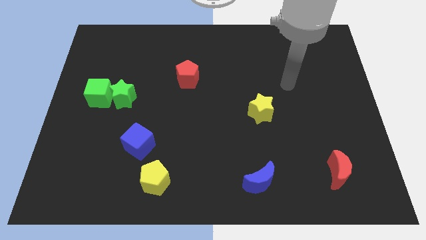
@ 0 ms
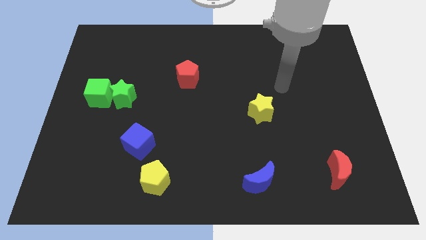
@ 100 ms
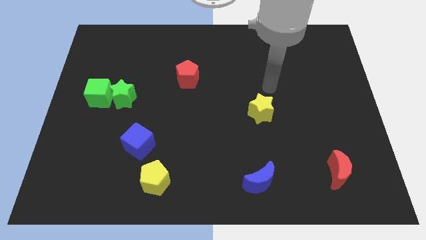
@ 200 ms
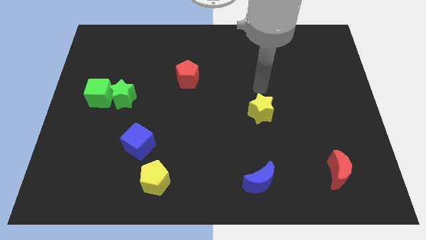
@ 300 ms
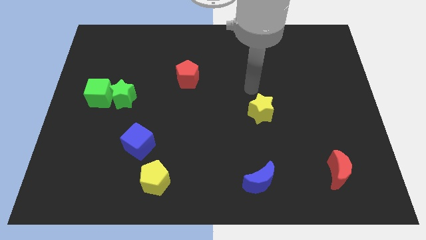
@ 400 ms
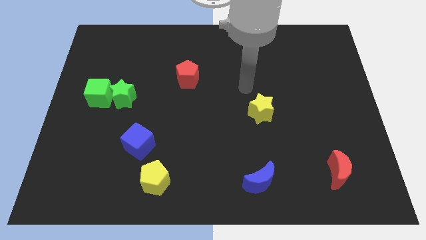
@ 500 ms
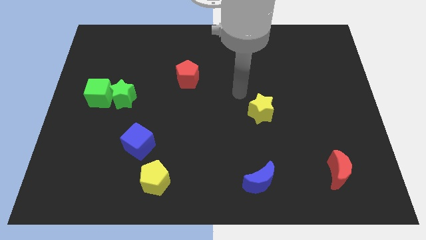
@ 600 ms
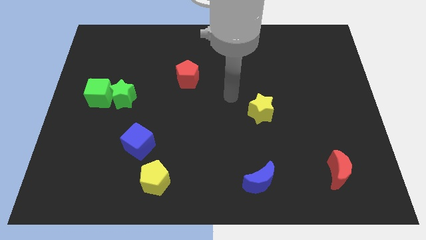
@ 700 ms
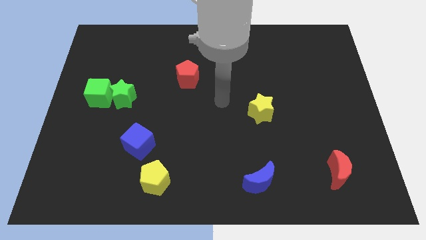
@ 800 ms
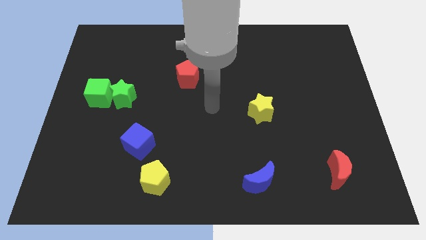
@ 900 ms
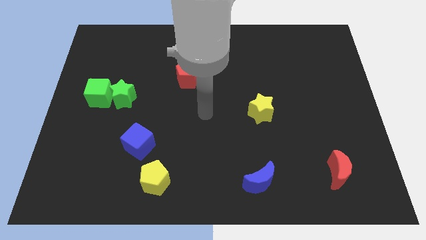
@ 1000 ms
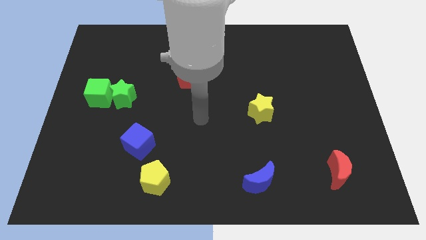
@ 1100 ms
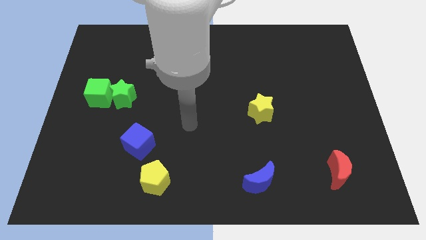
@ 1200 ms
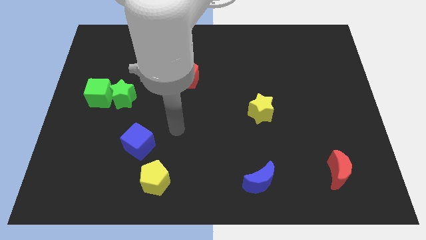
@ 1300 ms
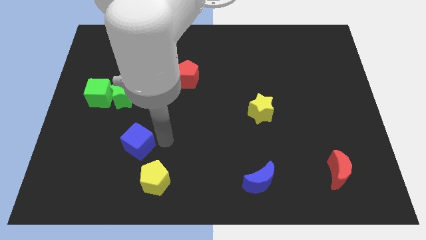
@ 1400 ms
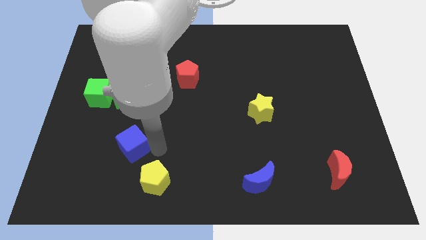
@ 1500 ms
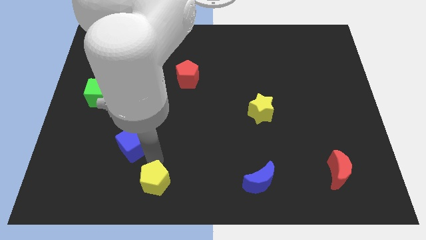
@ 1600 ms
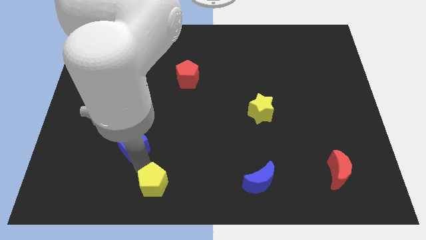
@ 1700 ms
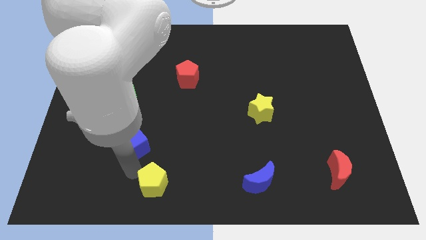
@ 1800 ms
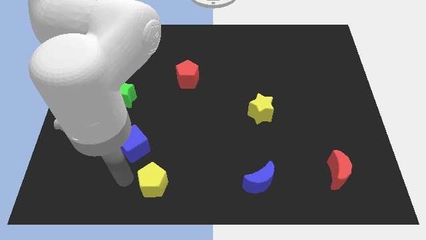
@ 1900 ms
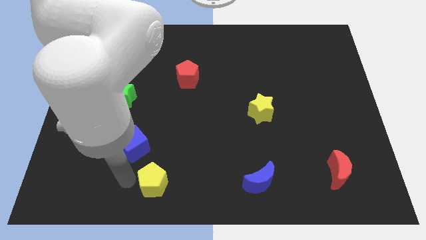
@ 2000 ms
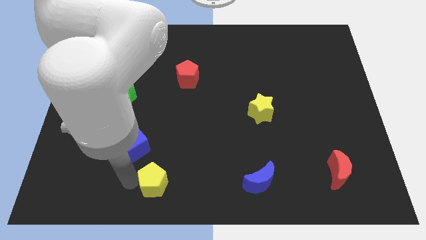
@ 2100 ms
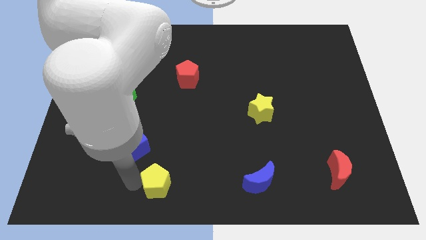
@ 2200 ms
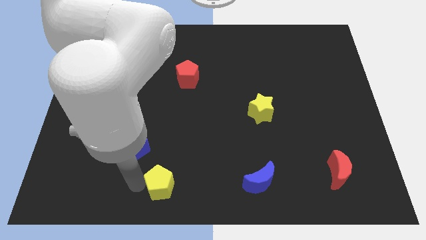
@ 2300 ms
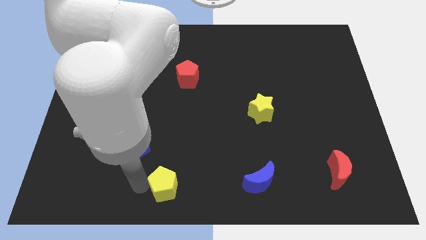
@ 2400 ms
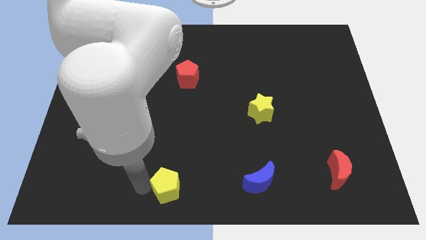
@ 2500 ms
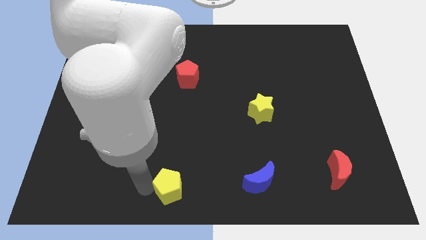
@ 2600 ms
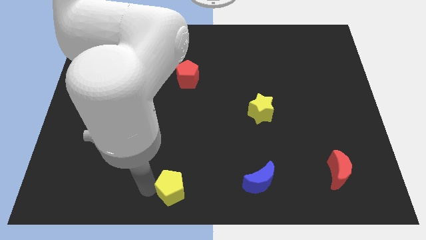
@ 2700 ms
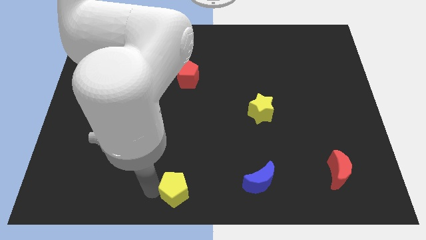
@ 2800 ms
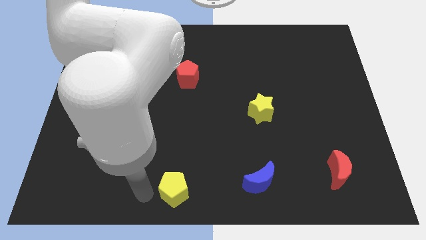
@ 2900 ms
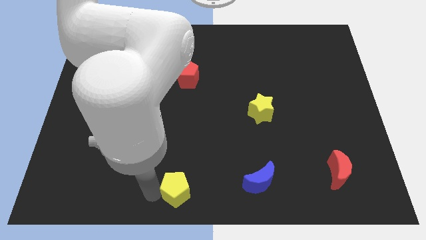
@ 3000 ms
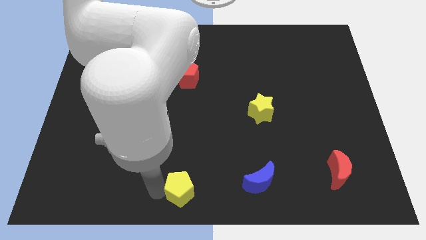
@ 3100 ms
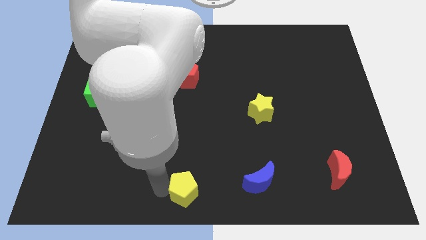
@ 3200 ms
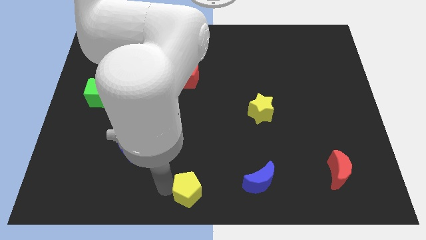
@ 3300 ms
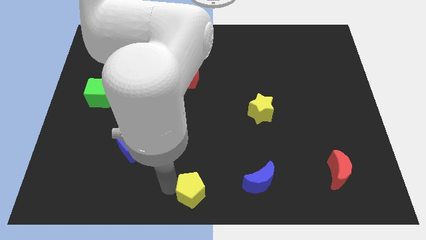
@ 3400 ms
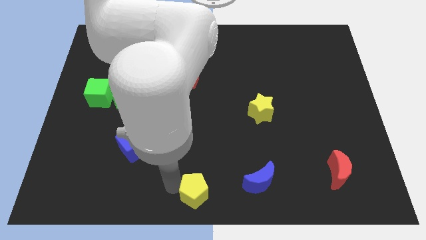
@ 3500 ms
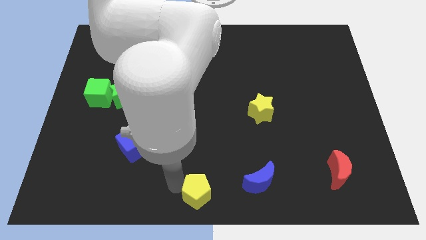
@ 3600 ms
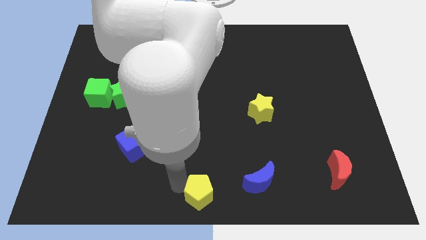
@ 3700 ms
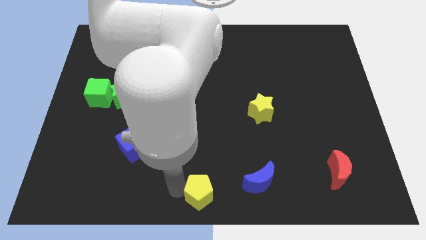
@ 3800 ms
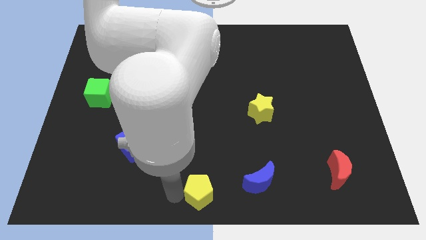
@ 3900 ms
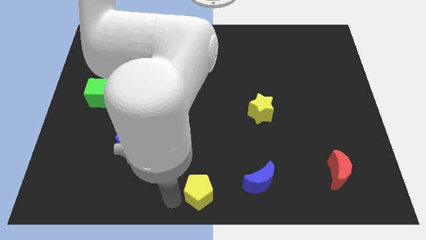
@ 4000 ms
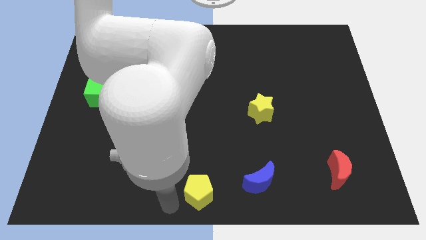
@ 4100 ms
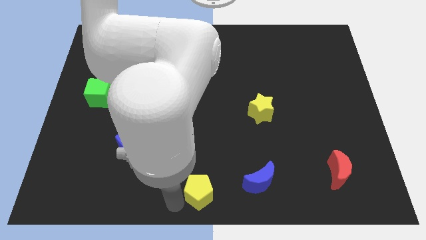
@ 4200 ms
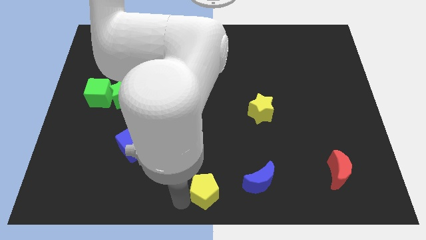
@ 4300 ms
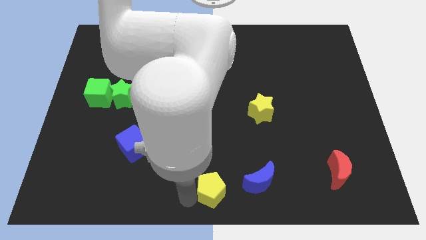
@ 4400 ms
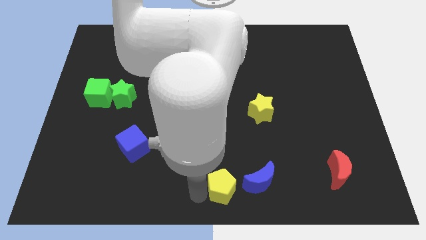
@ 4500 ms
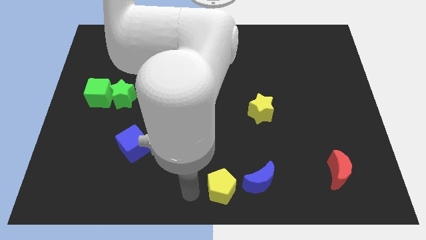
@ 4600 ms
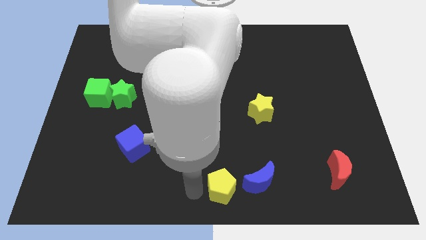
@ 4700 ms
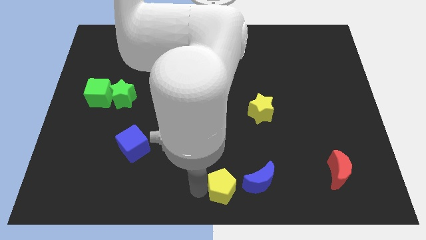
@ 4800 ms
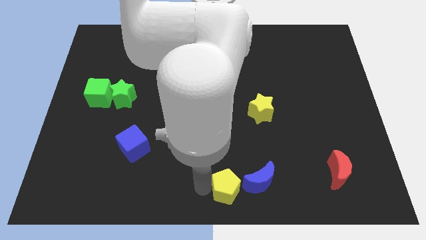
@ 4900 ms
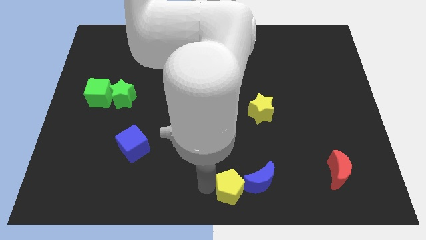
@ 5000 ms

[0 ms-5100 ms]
move the yellow pentagon towards the blue moon

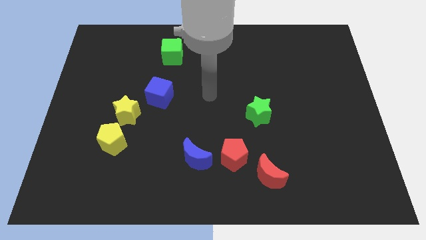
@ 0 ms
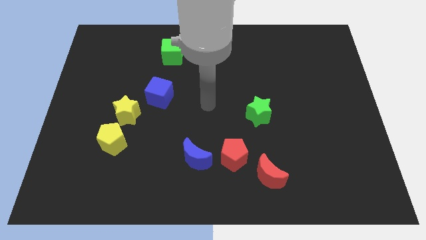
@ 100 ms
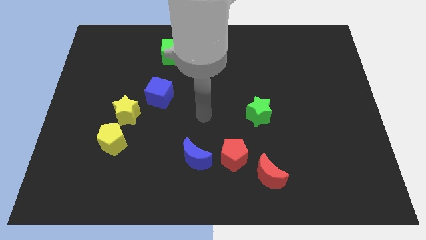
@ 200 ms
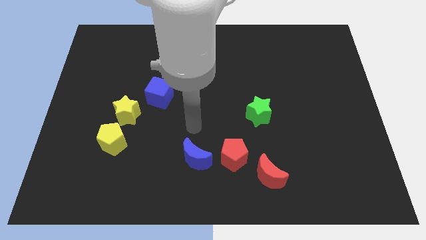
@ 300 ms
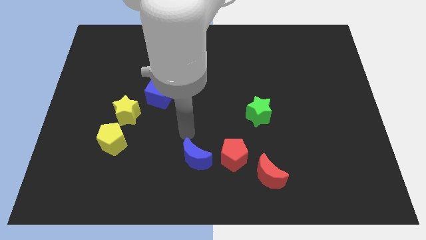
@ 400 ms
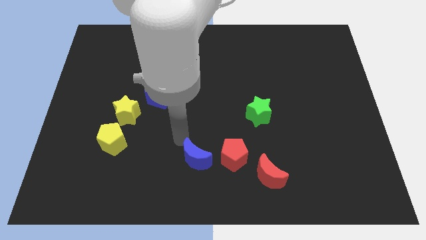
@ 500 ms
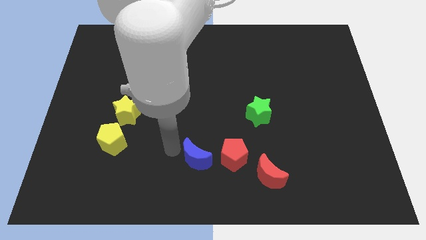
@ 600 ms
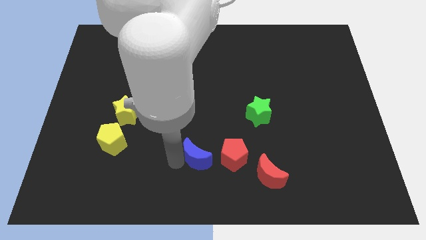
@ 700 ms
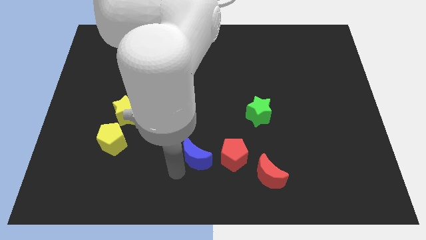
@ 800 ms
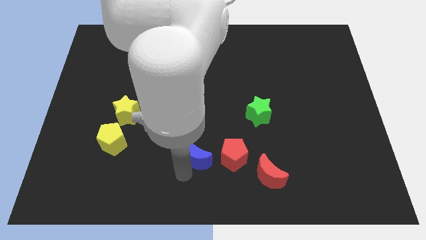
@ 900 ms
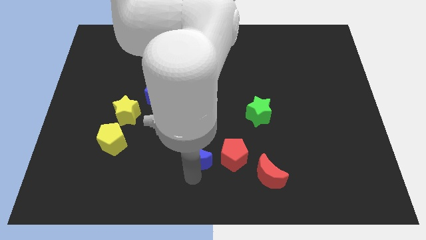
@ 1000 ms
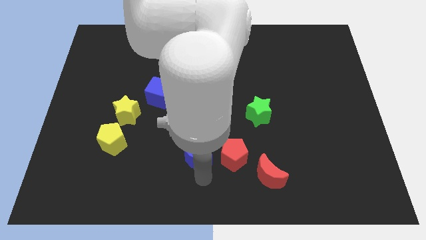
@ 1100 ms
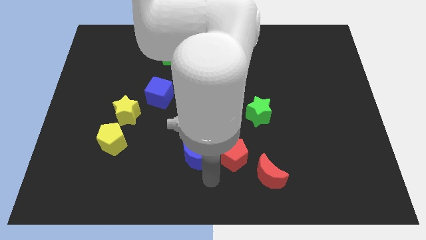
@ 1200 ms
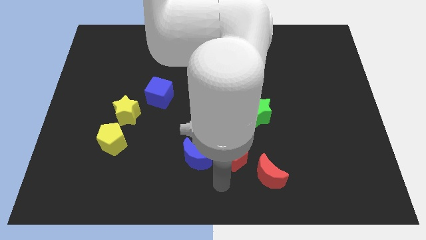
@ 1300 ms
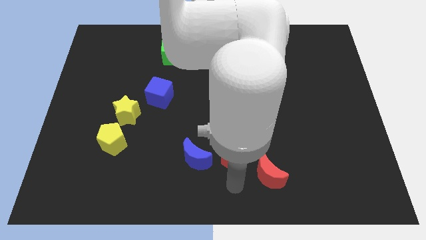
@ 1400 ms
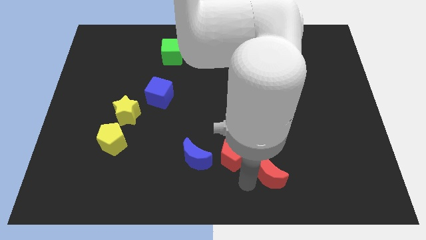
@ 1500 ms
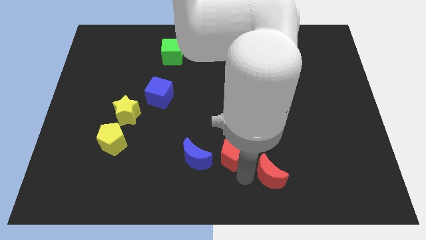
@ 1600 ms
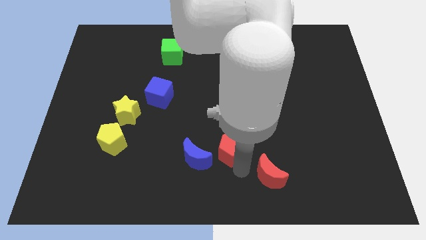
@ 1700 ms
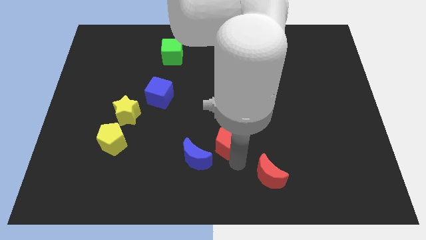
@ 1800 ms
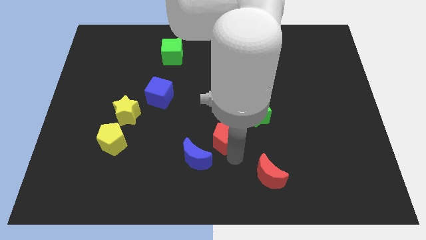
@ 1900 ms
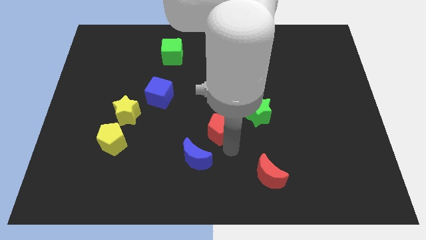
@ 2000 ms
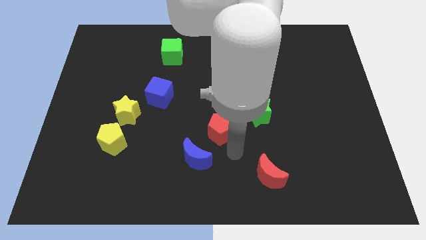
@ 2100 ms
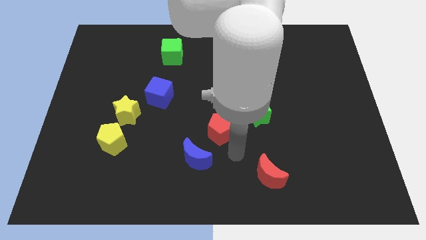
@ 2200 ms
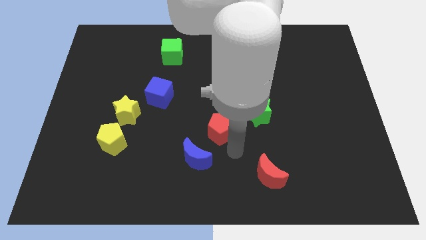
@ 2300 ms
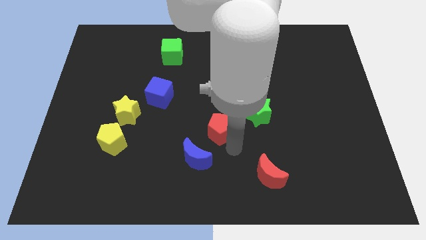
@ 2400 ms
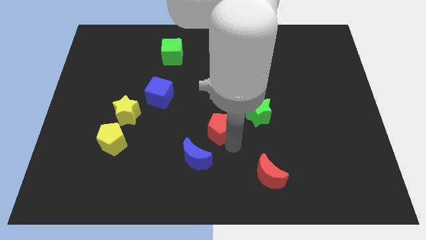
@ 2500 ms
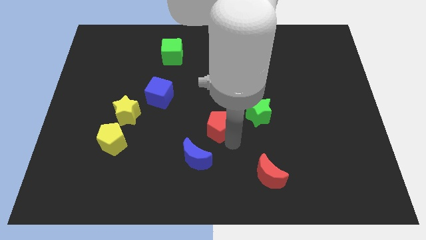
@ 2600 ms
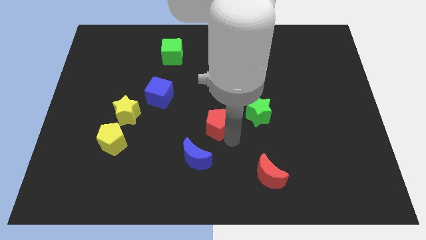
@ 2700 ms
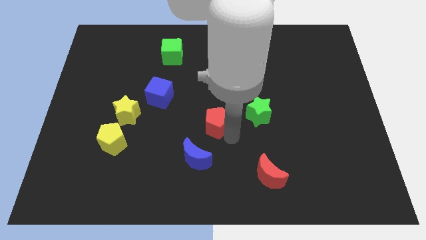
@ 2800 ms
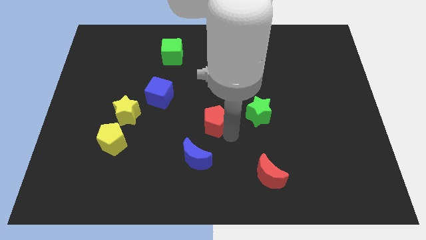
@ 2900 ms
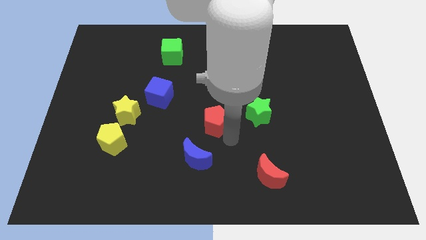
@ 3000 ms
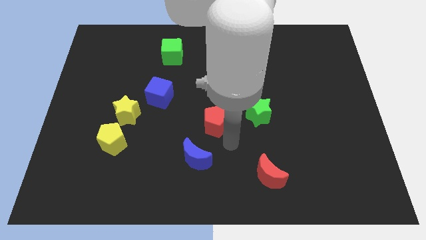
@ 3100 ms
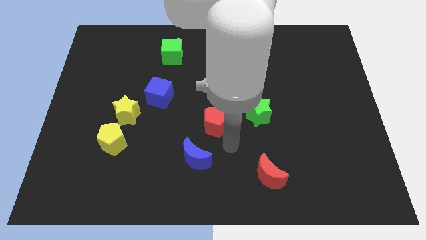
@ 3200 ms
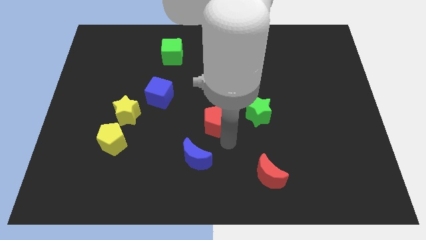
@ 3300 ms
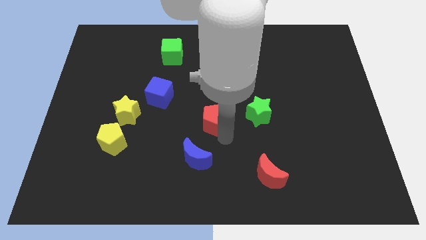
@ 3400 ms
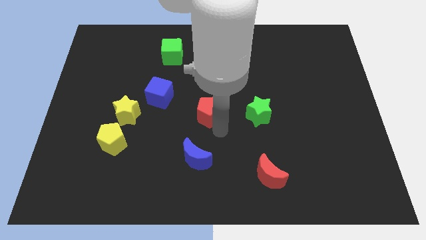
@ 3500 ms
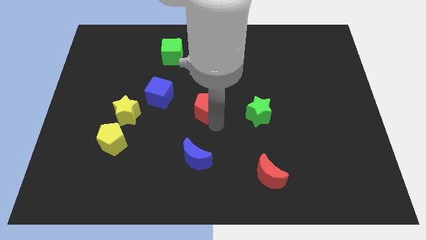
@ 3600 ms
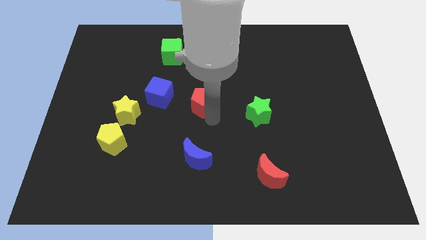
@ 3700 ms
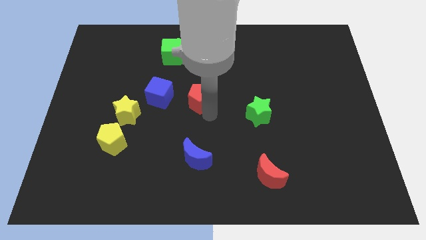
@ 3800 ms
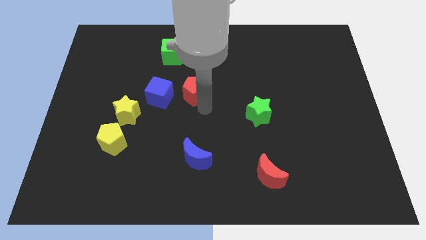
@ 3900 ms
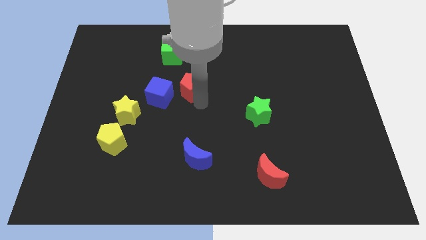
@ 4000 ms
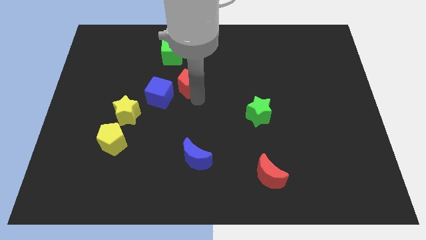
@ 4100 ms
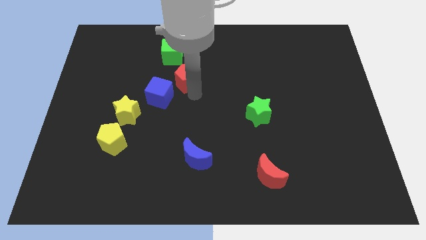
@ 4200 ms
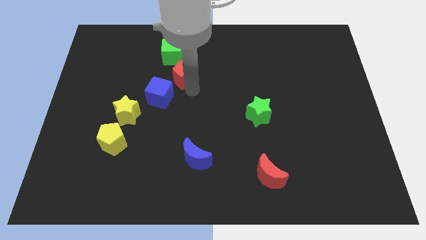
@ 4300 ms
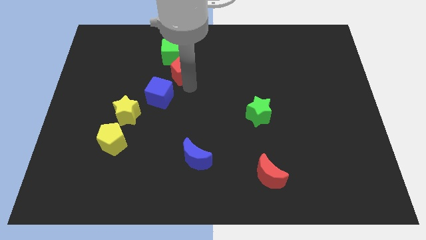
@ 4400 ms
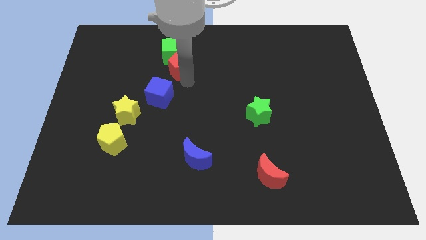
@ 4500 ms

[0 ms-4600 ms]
move the red pentagon next to the green cube
